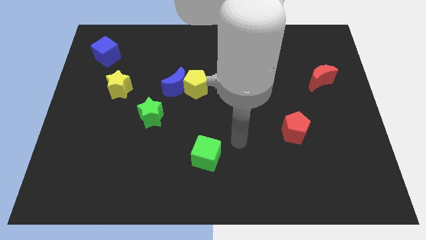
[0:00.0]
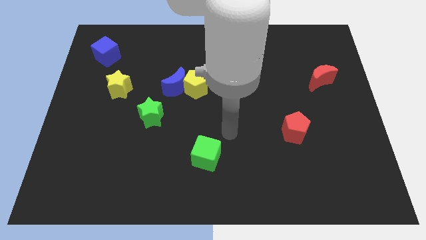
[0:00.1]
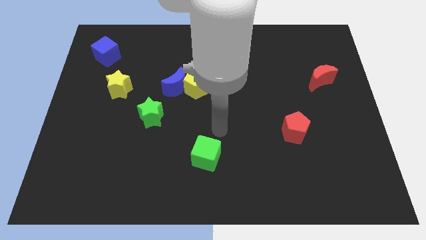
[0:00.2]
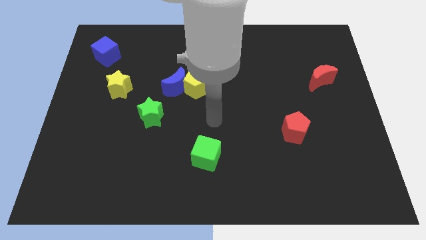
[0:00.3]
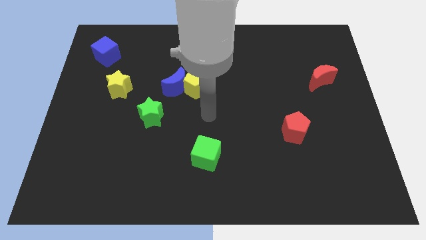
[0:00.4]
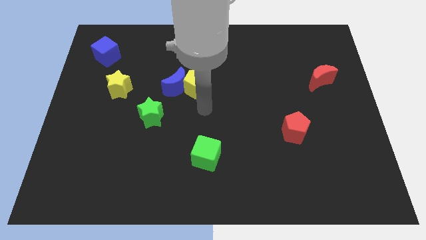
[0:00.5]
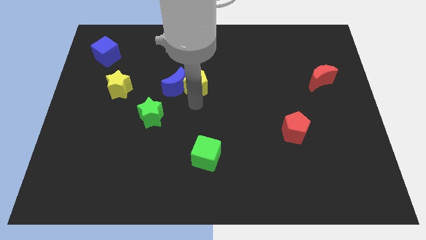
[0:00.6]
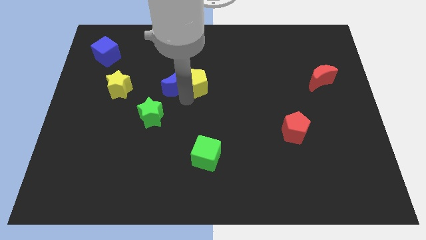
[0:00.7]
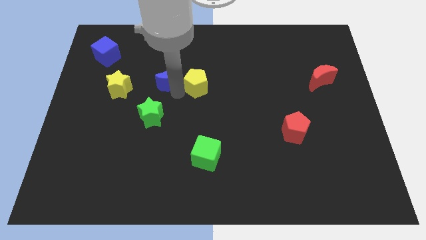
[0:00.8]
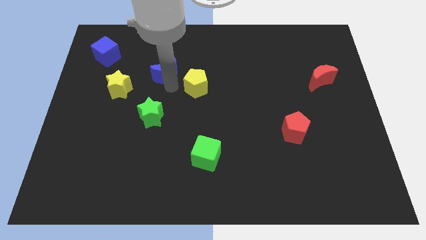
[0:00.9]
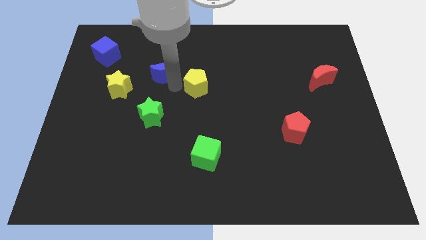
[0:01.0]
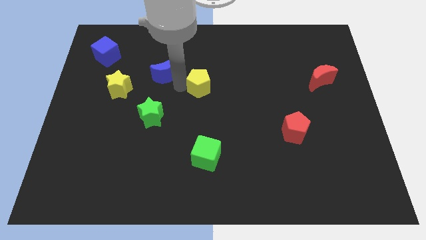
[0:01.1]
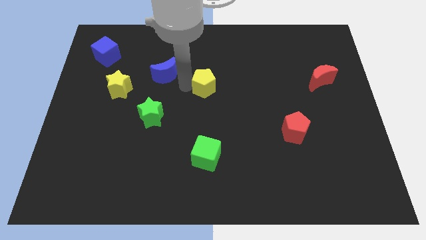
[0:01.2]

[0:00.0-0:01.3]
pull the yellow pentagon apart from the blue moon

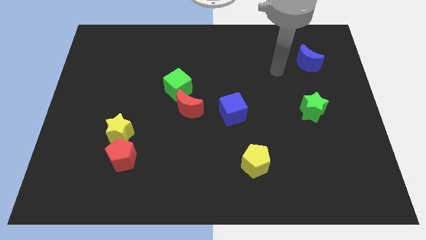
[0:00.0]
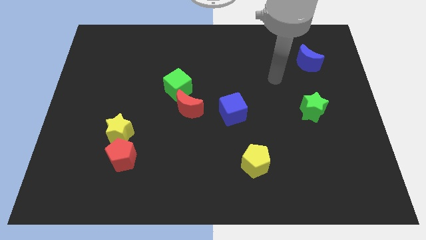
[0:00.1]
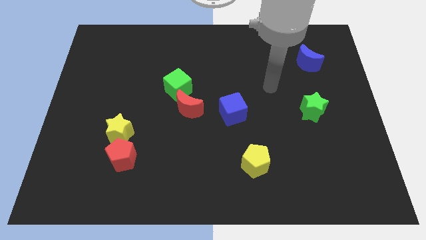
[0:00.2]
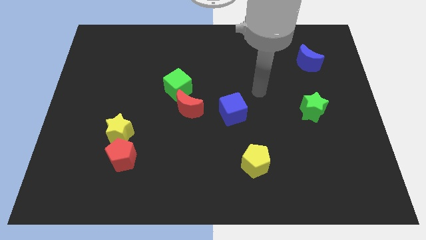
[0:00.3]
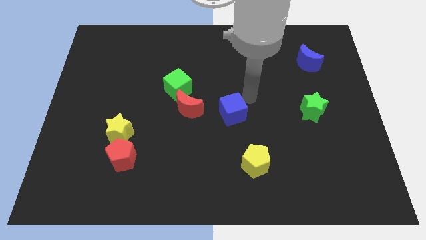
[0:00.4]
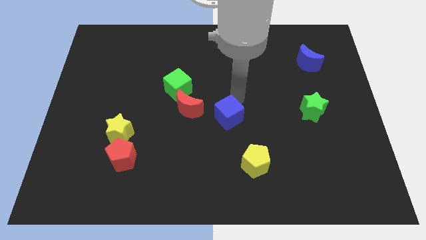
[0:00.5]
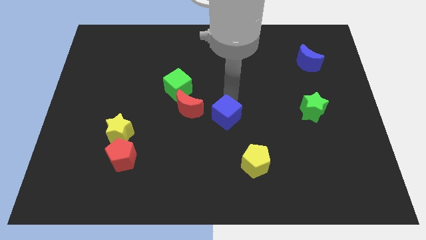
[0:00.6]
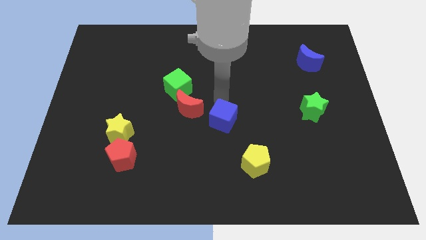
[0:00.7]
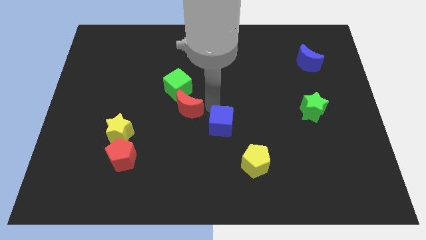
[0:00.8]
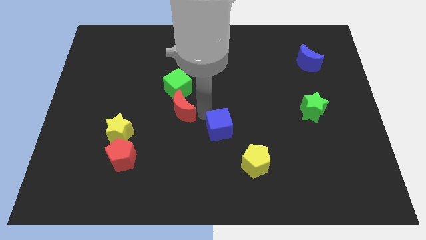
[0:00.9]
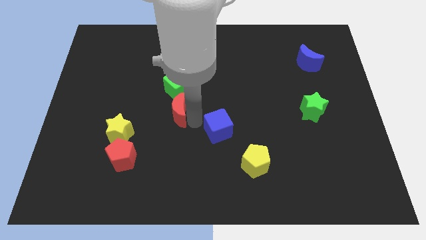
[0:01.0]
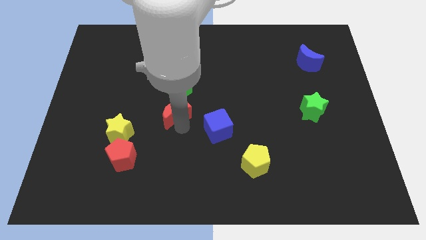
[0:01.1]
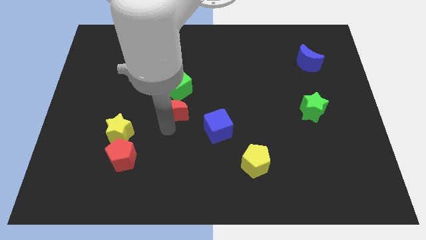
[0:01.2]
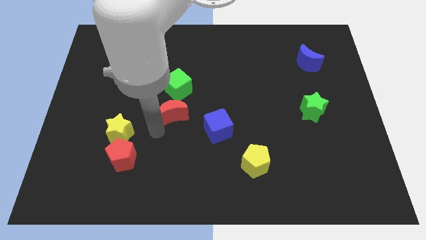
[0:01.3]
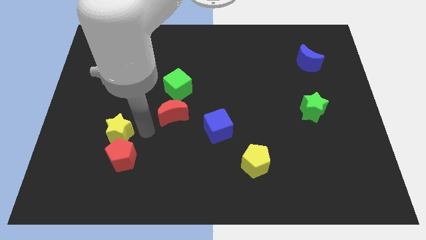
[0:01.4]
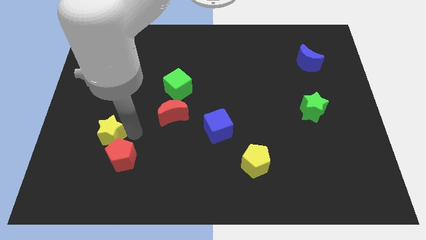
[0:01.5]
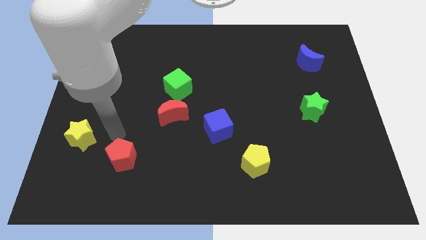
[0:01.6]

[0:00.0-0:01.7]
pull the red pentagon apart from the yellow star

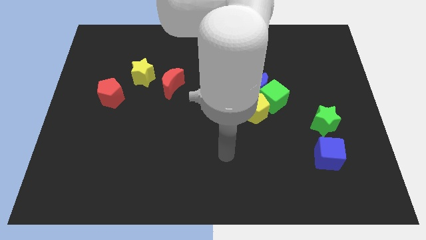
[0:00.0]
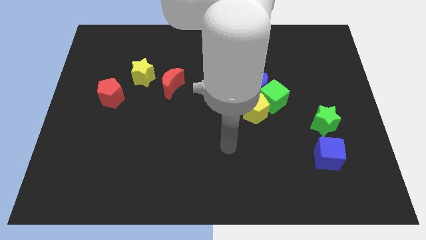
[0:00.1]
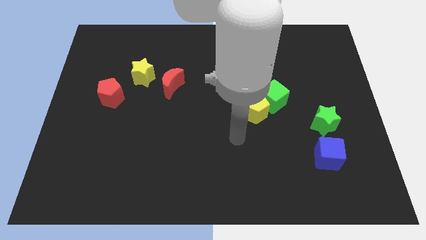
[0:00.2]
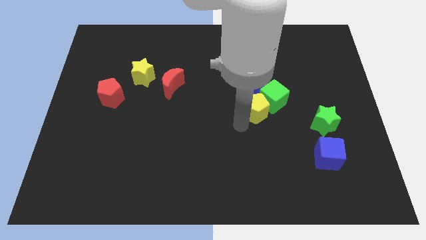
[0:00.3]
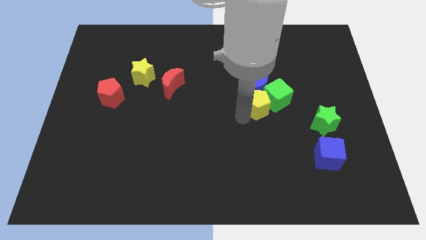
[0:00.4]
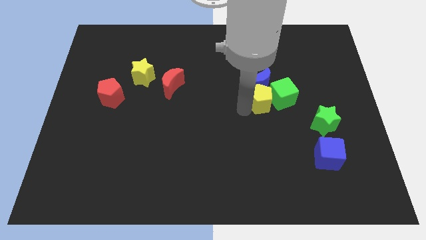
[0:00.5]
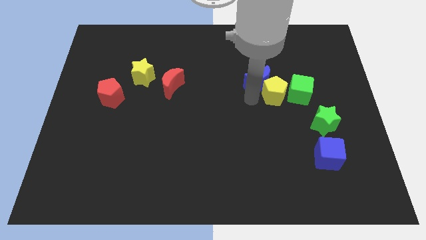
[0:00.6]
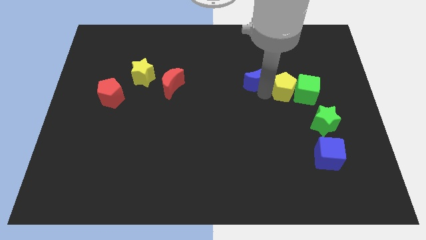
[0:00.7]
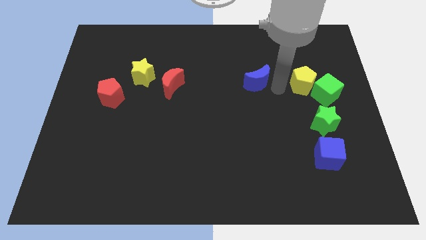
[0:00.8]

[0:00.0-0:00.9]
move the green cube away from the blue moon and yellow pentagon

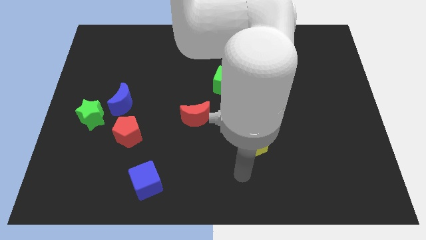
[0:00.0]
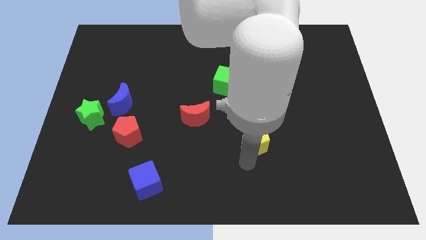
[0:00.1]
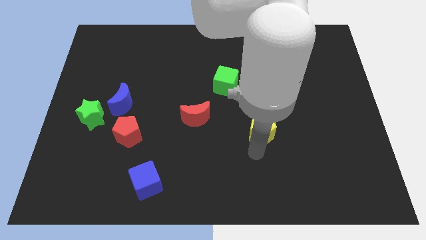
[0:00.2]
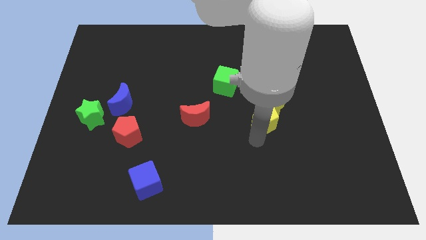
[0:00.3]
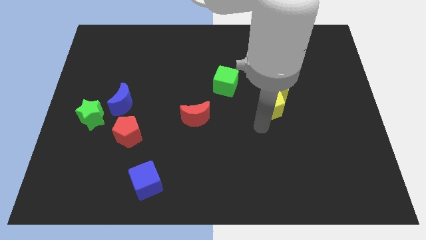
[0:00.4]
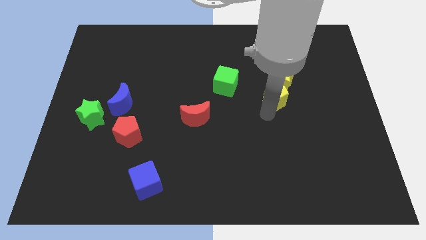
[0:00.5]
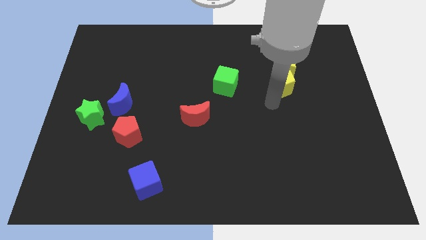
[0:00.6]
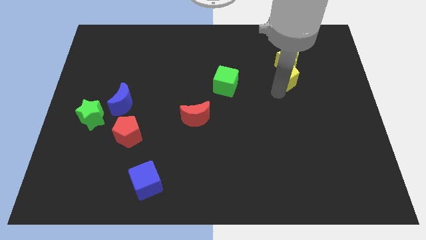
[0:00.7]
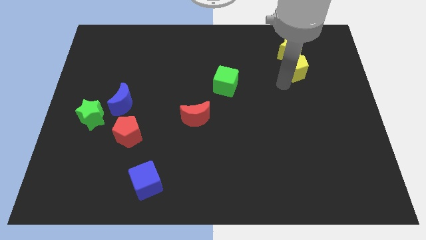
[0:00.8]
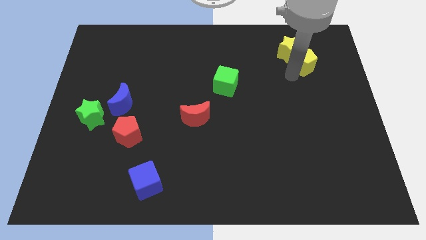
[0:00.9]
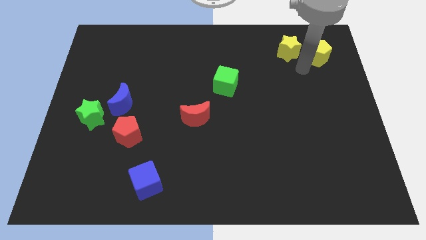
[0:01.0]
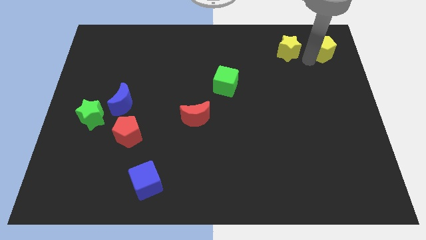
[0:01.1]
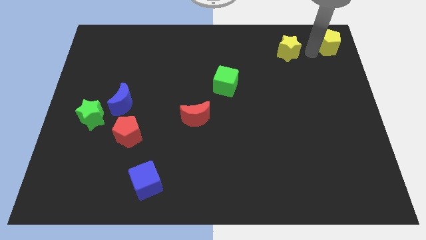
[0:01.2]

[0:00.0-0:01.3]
pull the yellow star apart from the yellow pentagon

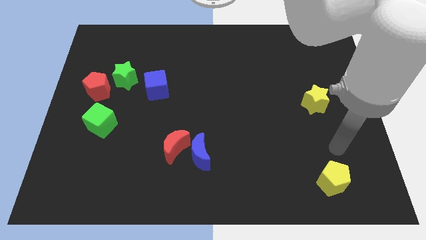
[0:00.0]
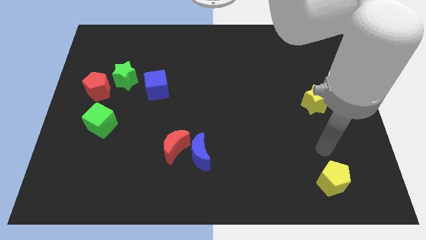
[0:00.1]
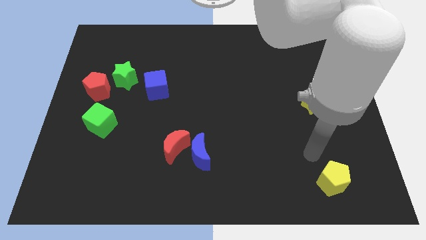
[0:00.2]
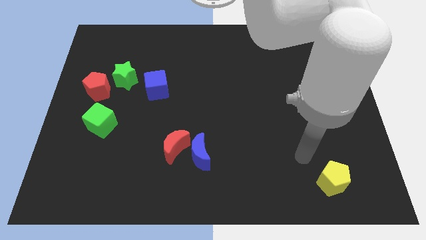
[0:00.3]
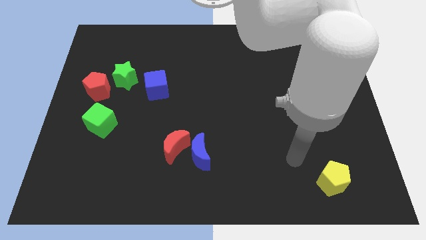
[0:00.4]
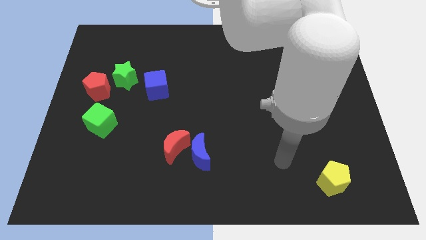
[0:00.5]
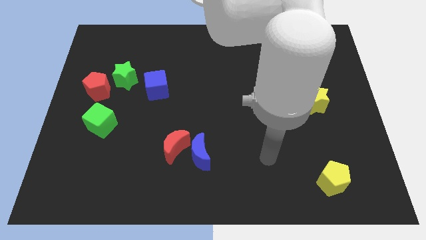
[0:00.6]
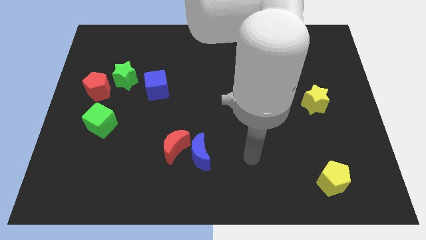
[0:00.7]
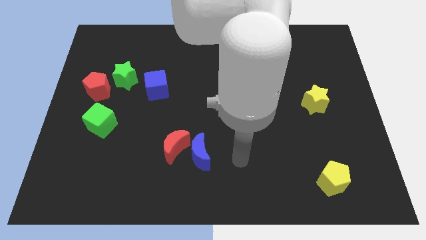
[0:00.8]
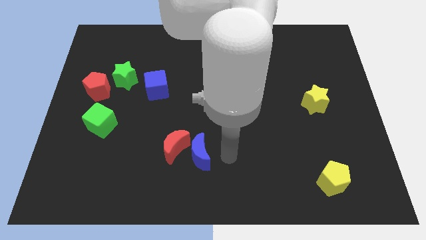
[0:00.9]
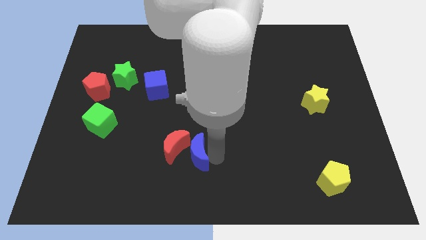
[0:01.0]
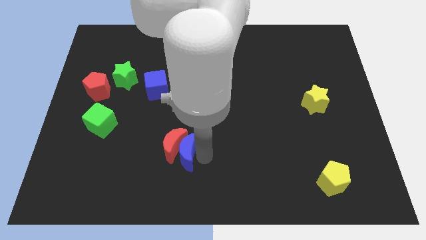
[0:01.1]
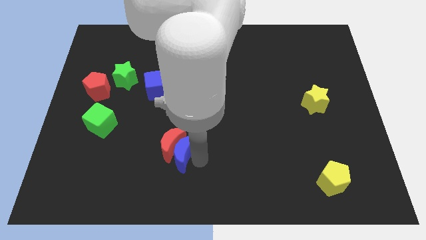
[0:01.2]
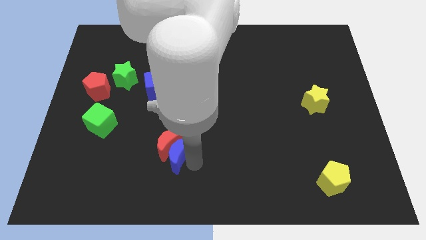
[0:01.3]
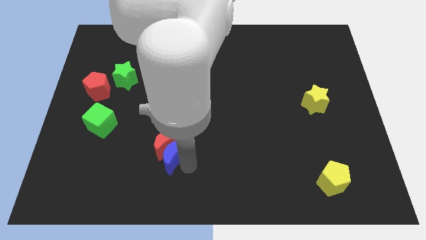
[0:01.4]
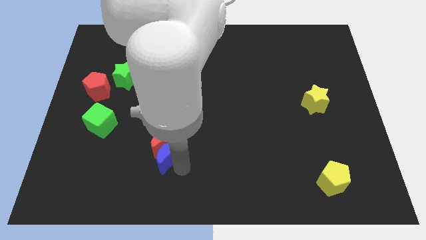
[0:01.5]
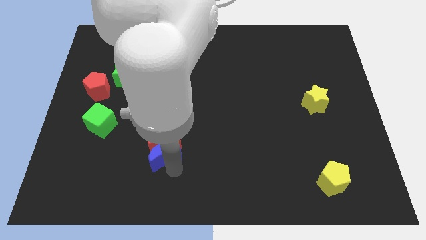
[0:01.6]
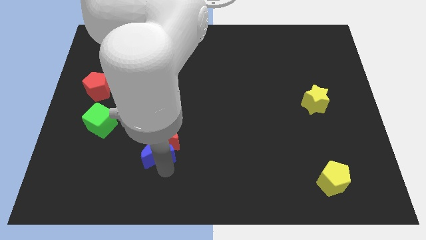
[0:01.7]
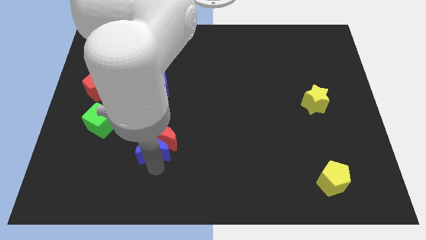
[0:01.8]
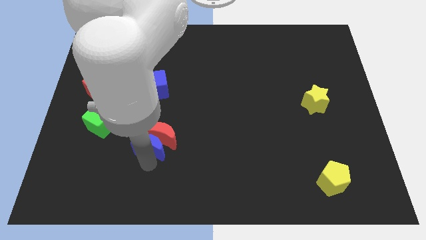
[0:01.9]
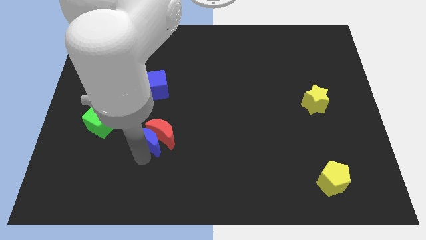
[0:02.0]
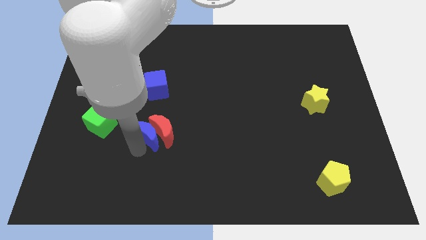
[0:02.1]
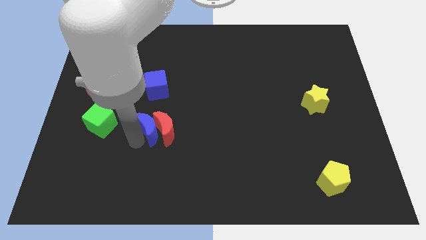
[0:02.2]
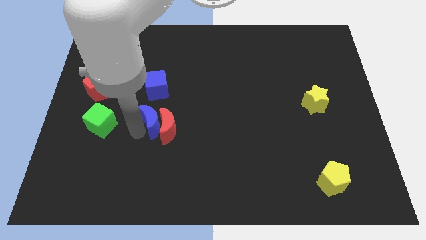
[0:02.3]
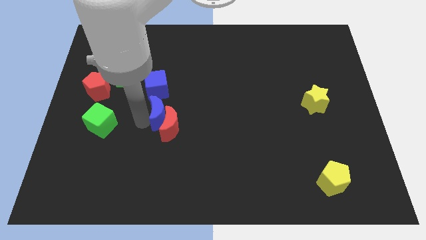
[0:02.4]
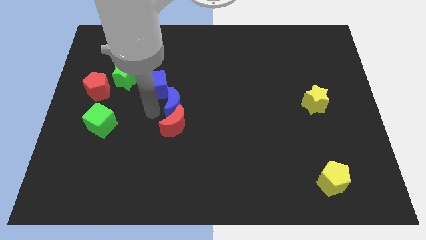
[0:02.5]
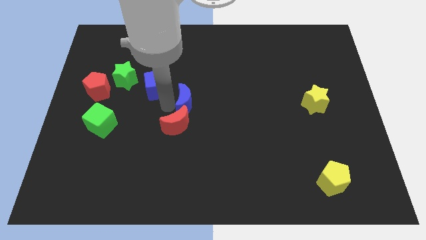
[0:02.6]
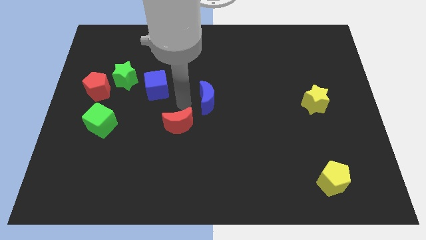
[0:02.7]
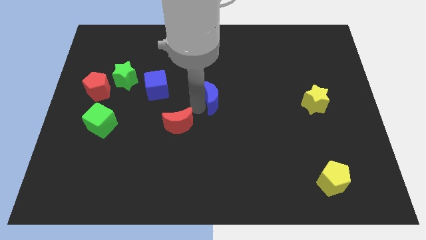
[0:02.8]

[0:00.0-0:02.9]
move the red moon away from the blue moon

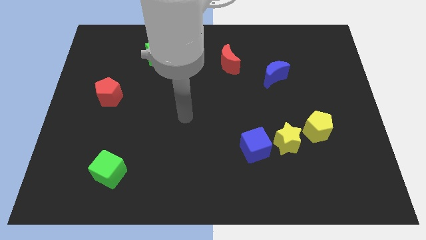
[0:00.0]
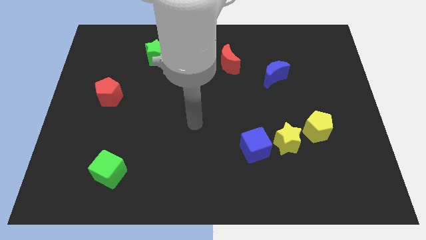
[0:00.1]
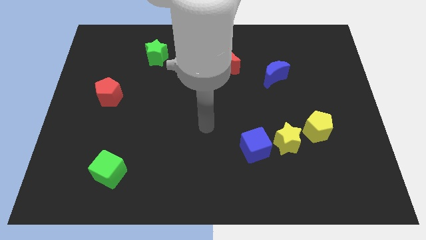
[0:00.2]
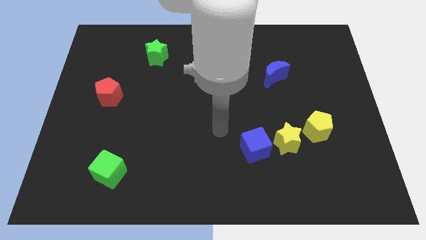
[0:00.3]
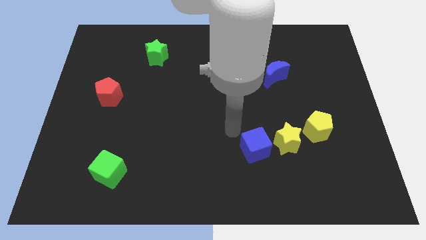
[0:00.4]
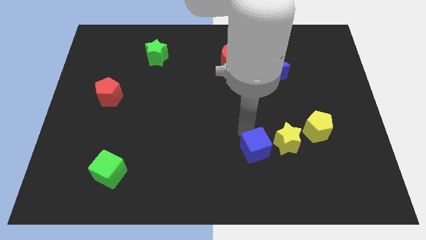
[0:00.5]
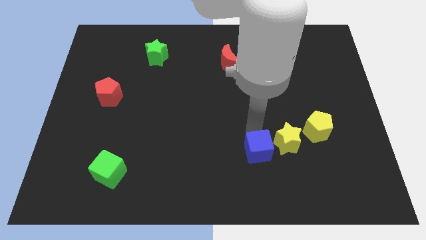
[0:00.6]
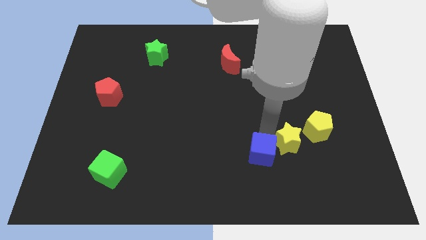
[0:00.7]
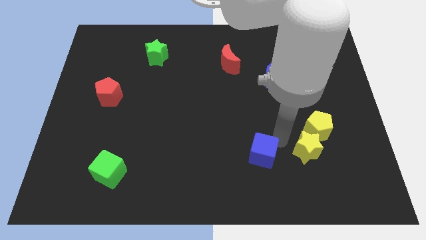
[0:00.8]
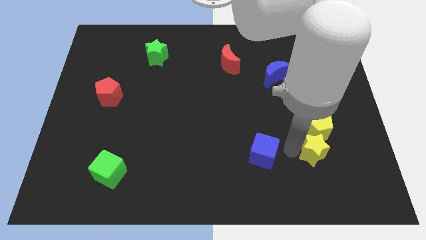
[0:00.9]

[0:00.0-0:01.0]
separate the blue cube from the yellow star
